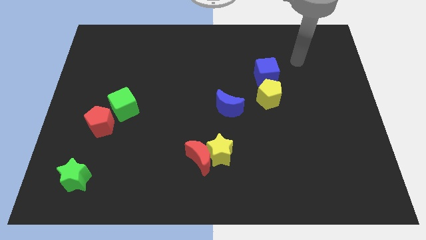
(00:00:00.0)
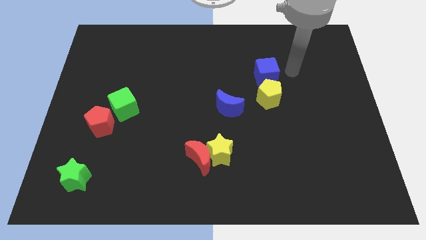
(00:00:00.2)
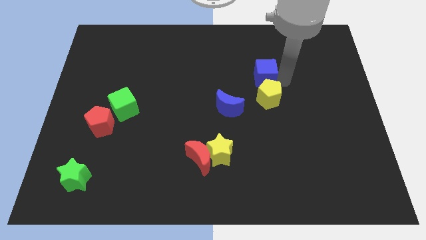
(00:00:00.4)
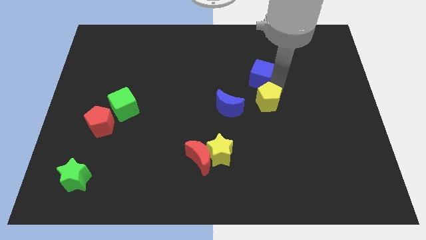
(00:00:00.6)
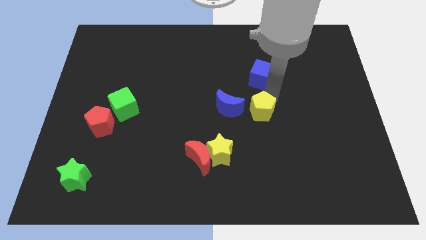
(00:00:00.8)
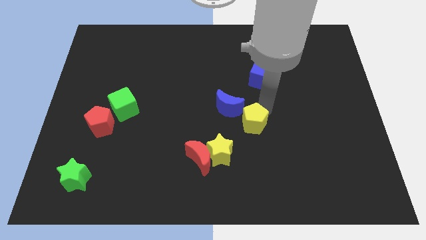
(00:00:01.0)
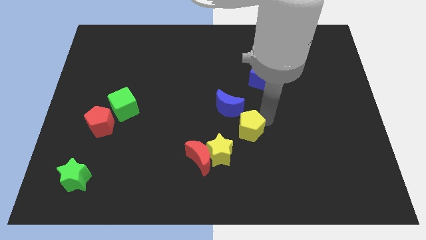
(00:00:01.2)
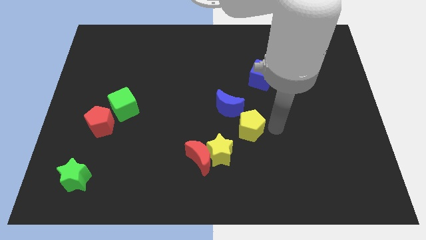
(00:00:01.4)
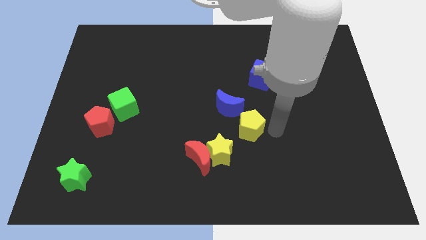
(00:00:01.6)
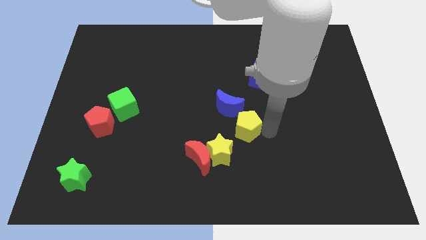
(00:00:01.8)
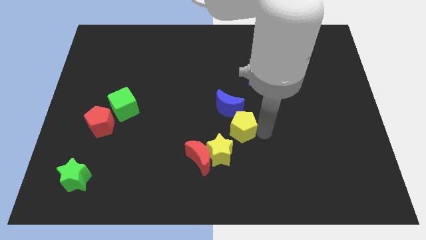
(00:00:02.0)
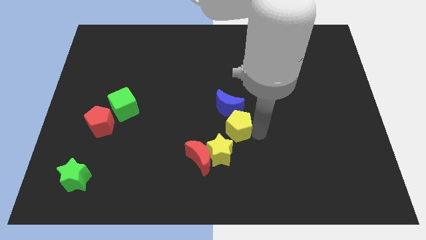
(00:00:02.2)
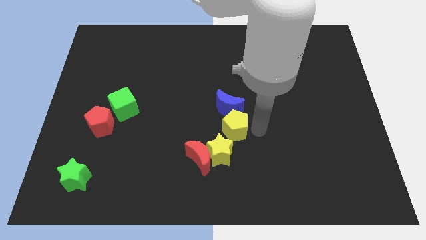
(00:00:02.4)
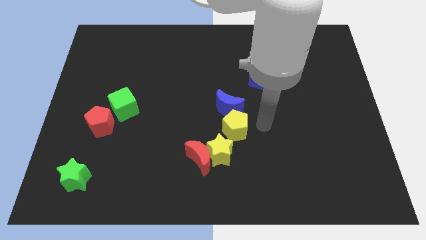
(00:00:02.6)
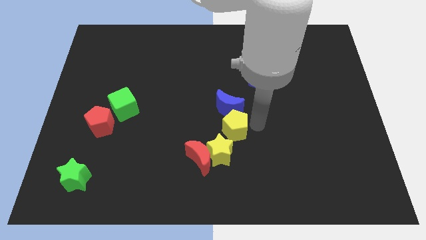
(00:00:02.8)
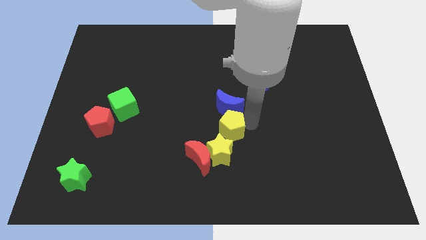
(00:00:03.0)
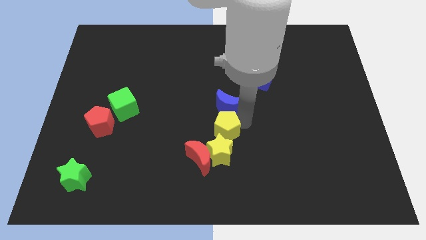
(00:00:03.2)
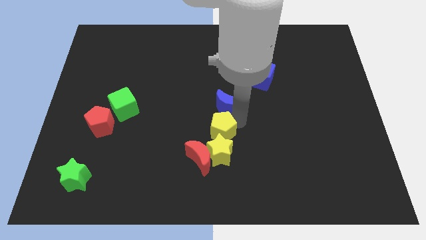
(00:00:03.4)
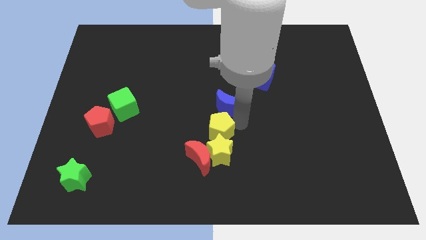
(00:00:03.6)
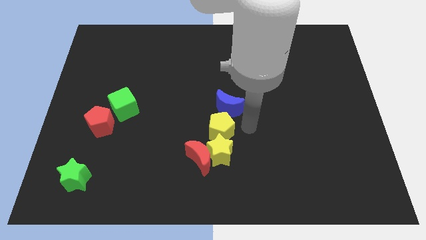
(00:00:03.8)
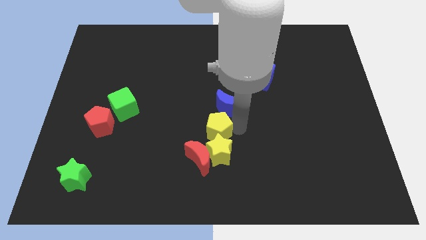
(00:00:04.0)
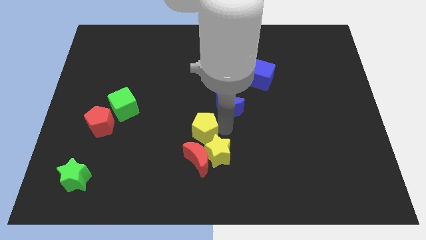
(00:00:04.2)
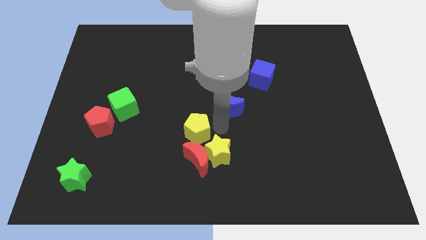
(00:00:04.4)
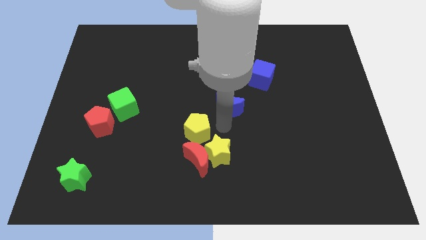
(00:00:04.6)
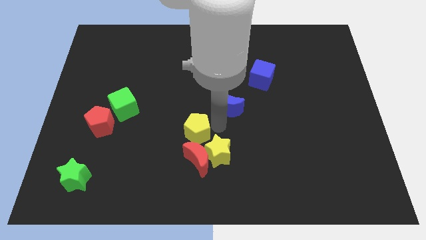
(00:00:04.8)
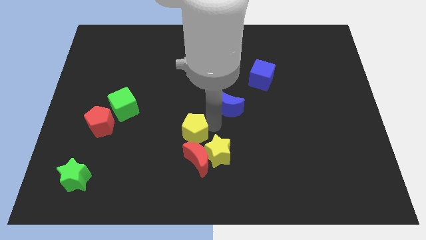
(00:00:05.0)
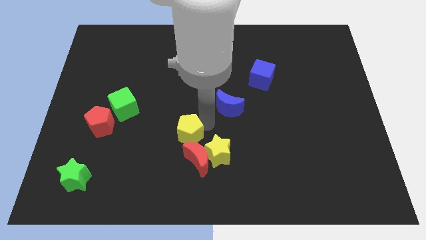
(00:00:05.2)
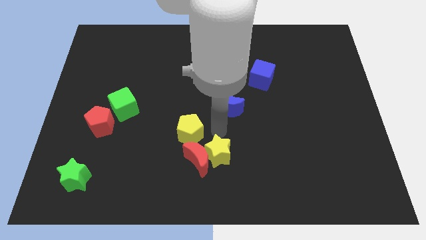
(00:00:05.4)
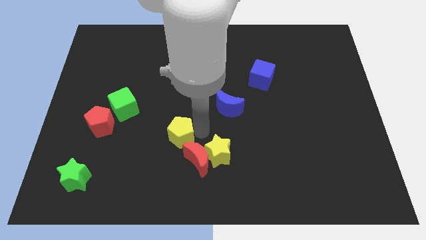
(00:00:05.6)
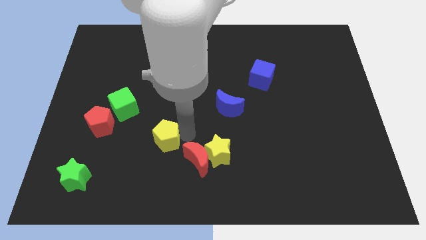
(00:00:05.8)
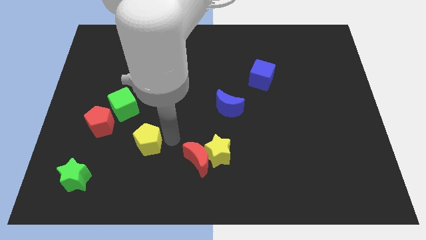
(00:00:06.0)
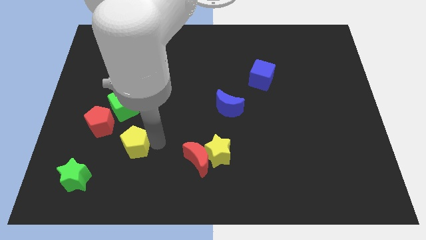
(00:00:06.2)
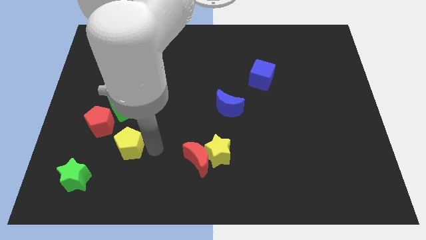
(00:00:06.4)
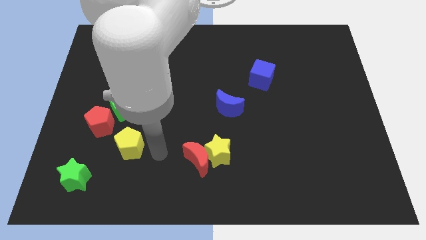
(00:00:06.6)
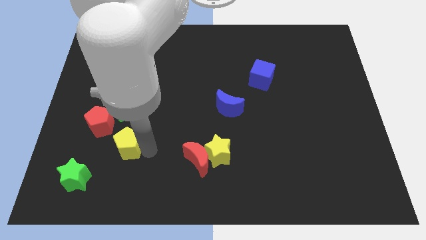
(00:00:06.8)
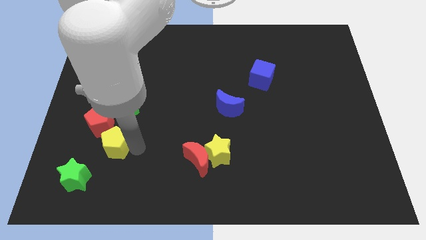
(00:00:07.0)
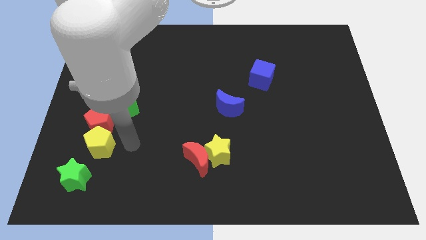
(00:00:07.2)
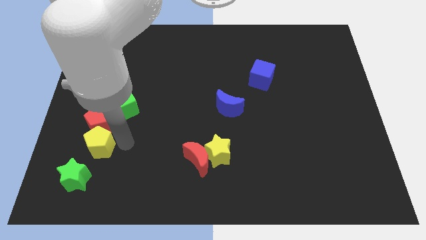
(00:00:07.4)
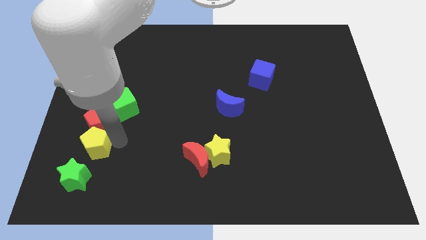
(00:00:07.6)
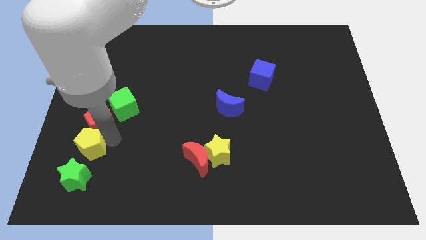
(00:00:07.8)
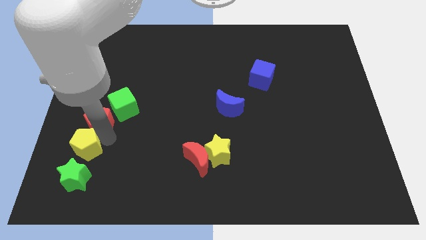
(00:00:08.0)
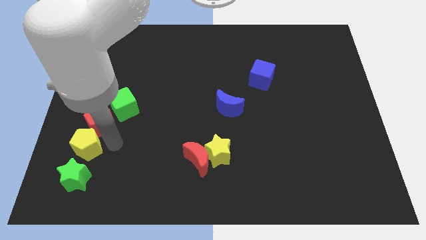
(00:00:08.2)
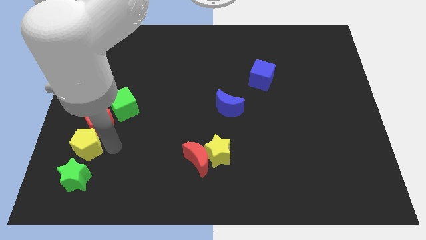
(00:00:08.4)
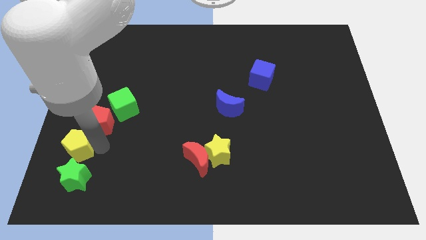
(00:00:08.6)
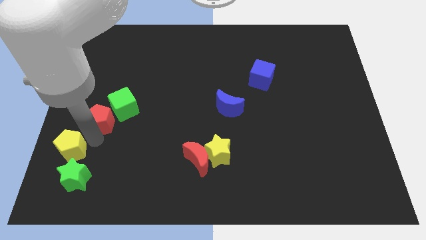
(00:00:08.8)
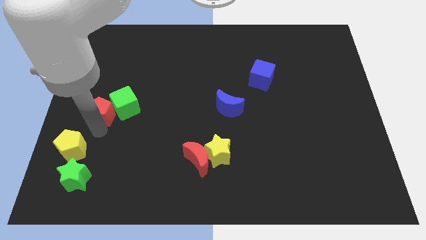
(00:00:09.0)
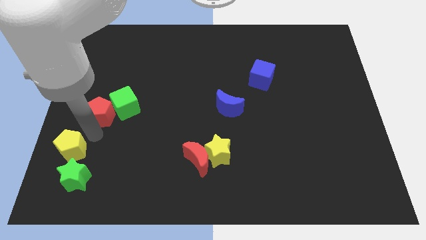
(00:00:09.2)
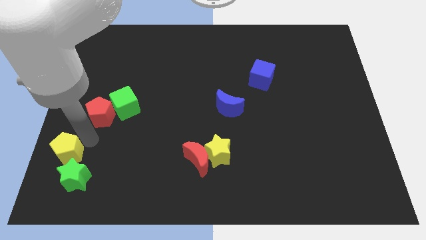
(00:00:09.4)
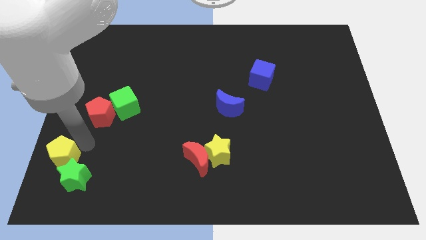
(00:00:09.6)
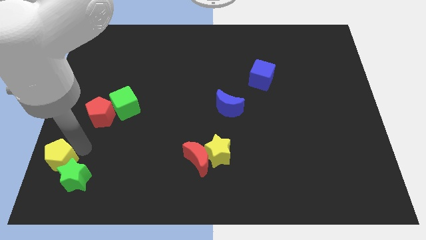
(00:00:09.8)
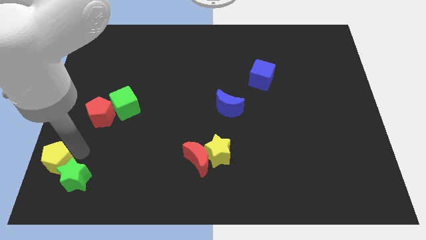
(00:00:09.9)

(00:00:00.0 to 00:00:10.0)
put the yellow pentagon to the lower left corner
